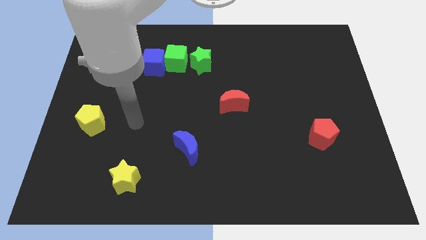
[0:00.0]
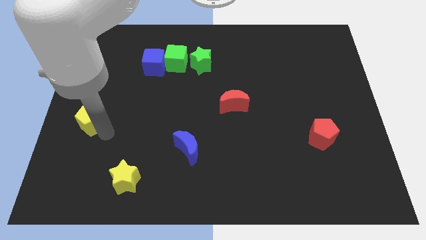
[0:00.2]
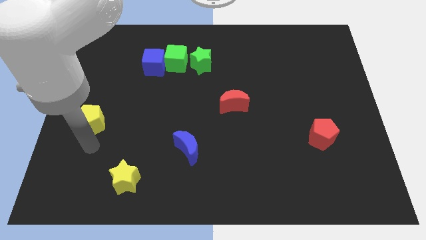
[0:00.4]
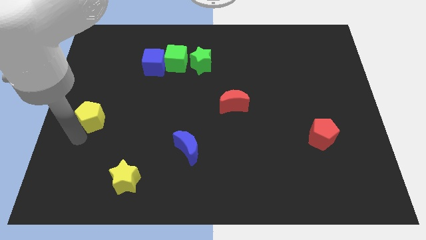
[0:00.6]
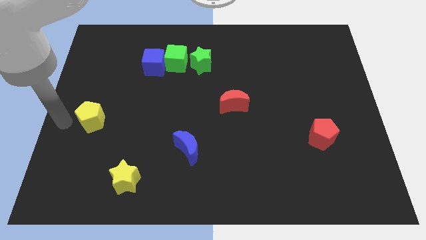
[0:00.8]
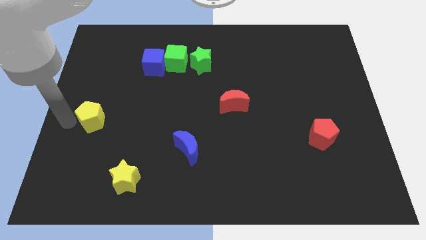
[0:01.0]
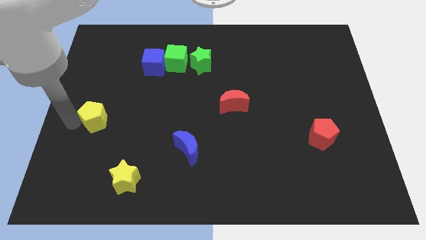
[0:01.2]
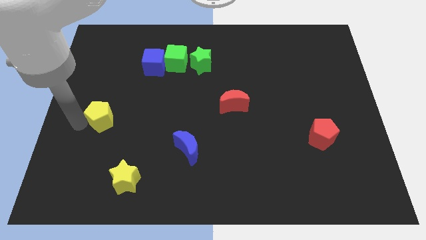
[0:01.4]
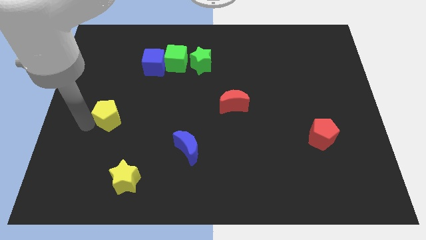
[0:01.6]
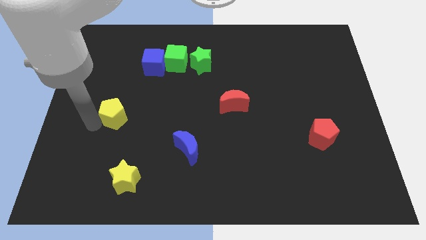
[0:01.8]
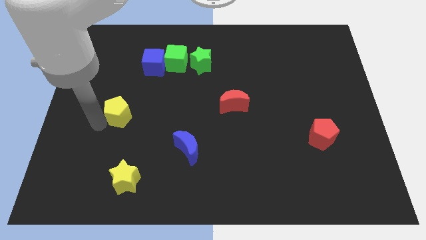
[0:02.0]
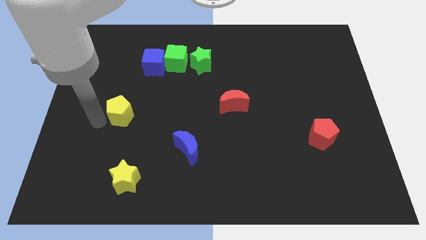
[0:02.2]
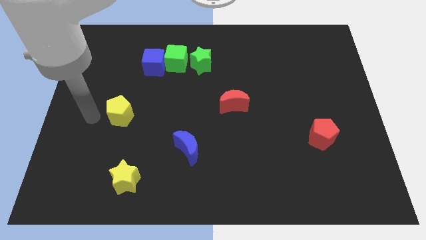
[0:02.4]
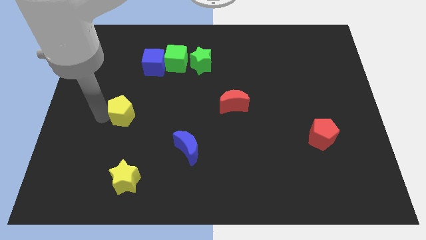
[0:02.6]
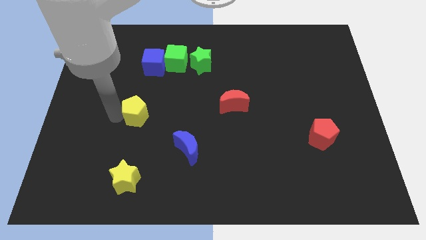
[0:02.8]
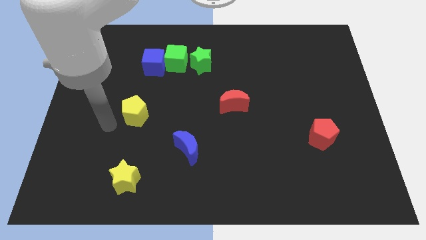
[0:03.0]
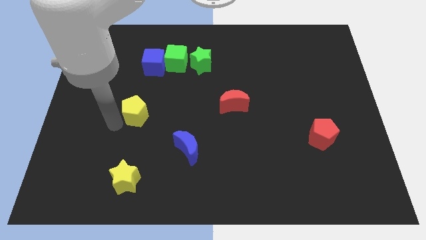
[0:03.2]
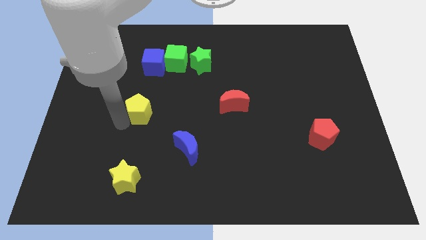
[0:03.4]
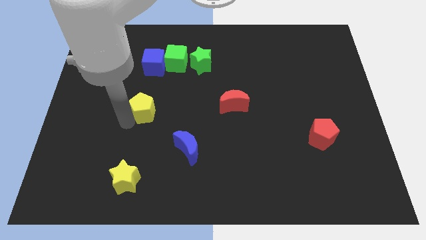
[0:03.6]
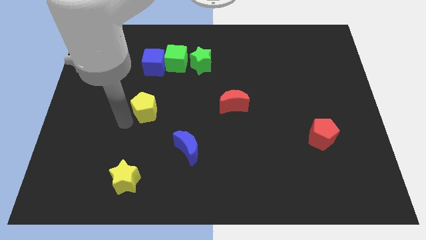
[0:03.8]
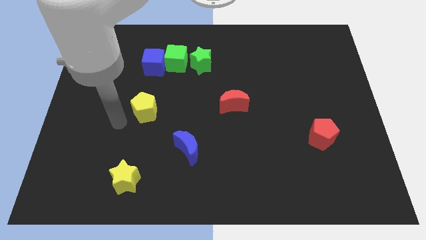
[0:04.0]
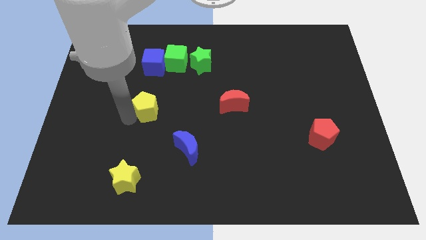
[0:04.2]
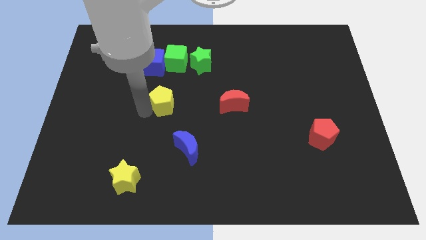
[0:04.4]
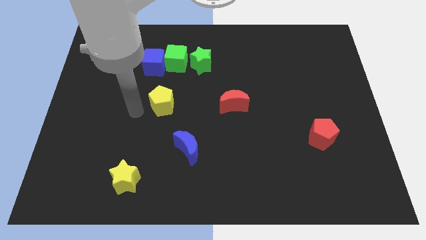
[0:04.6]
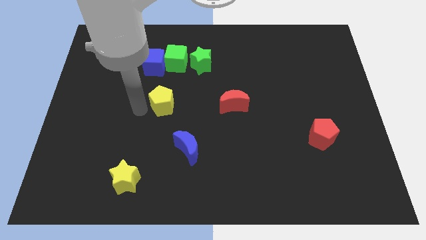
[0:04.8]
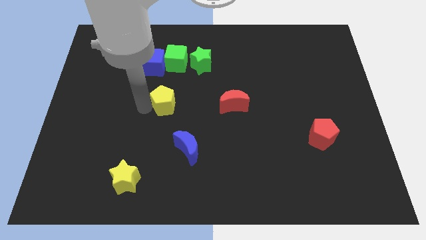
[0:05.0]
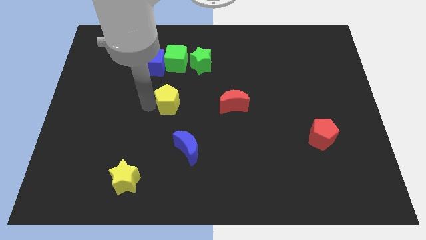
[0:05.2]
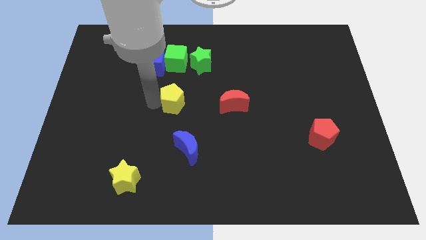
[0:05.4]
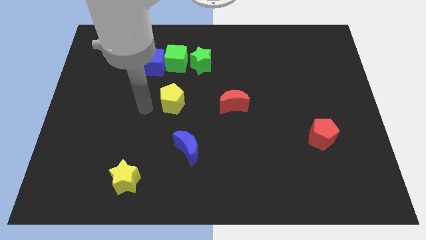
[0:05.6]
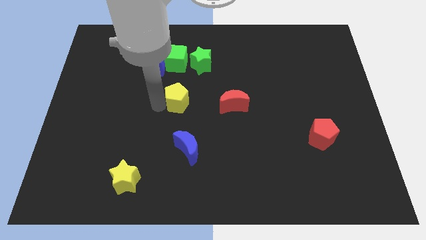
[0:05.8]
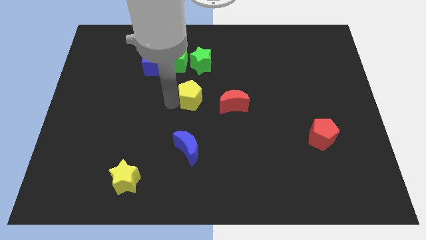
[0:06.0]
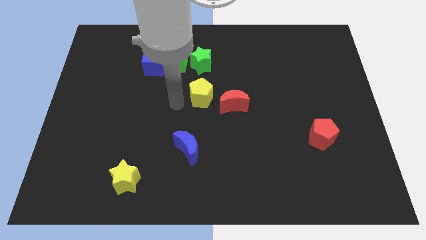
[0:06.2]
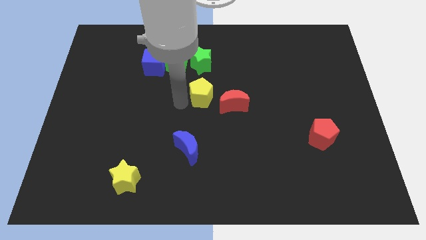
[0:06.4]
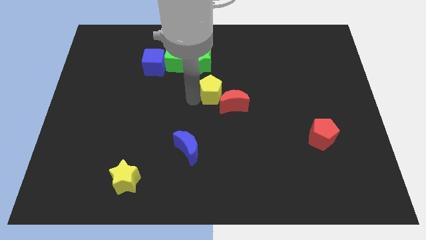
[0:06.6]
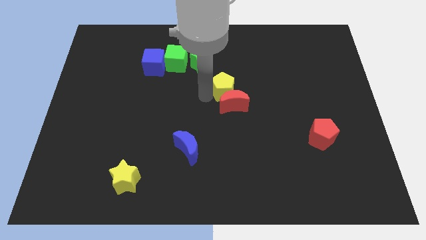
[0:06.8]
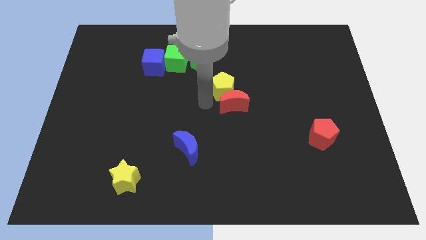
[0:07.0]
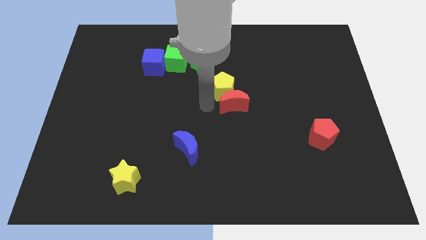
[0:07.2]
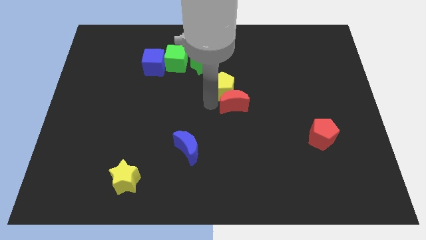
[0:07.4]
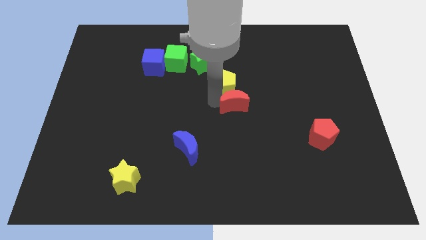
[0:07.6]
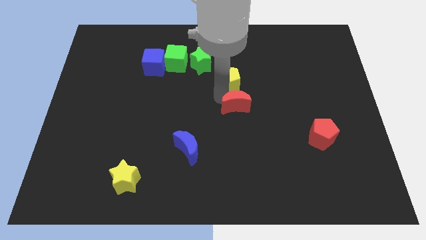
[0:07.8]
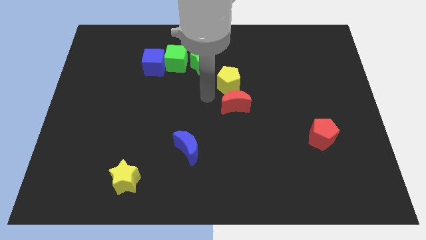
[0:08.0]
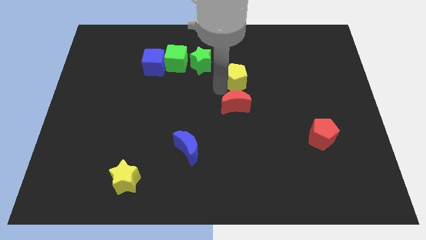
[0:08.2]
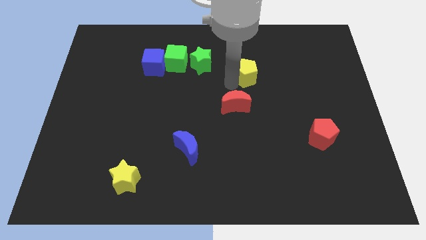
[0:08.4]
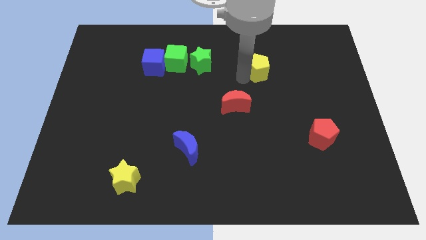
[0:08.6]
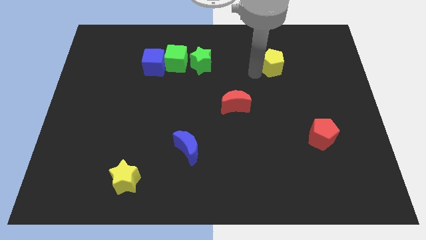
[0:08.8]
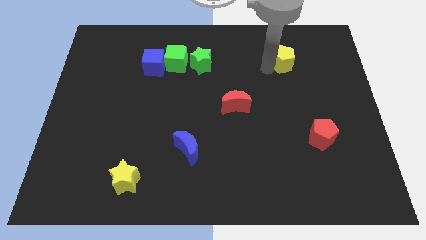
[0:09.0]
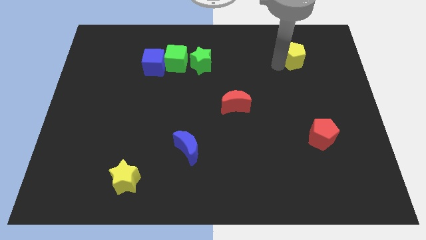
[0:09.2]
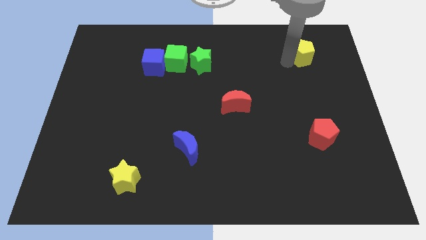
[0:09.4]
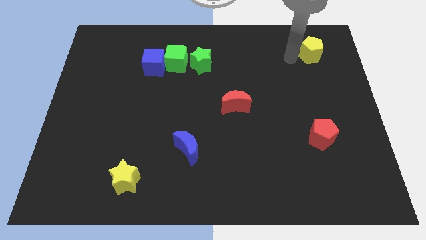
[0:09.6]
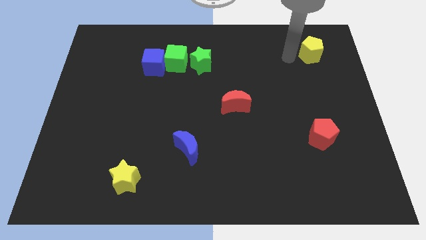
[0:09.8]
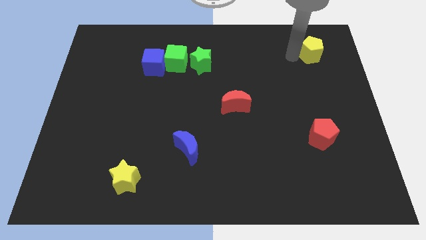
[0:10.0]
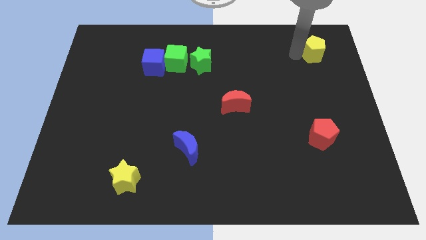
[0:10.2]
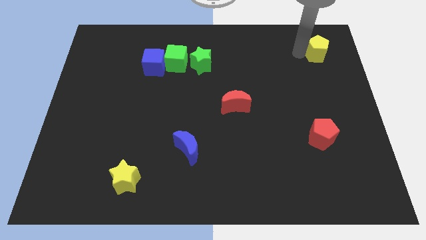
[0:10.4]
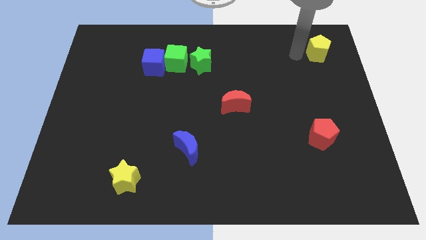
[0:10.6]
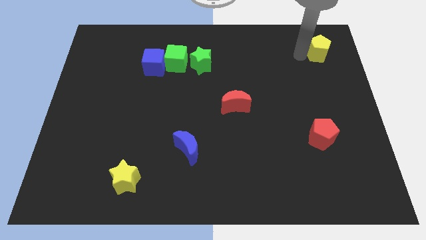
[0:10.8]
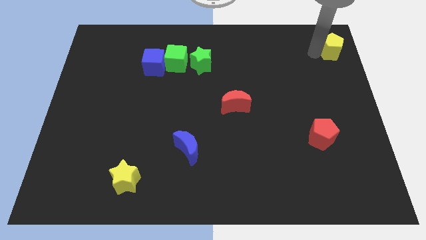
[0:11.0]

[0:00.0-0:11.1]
push the yellow pentagon to the upper right corner
